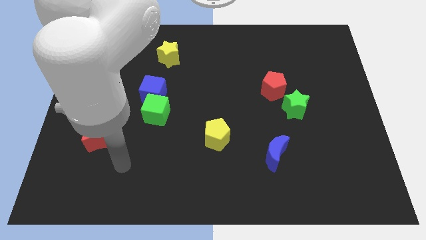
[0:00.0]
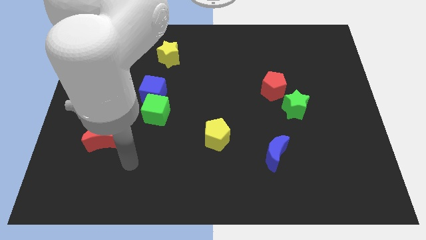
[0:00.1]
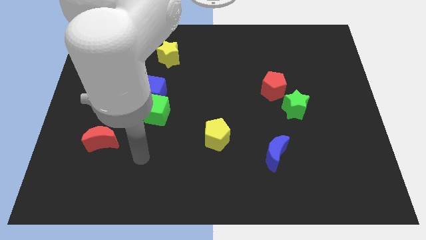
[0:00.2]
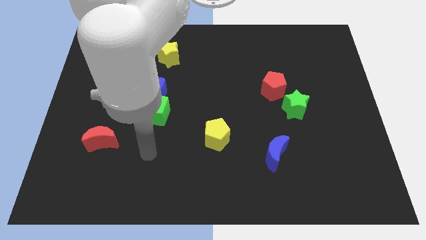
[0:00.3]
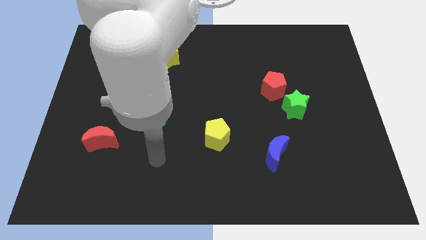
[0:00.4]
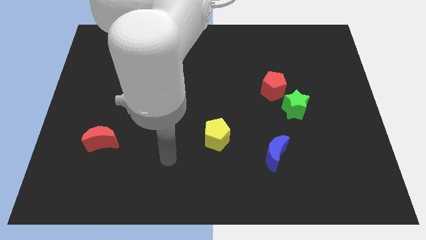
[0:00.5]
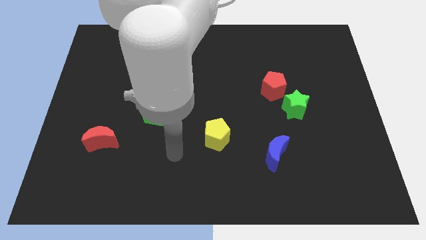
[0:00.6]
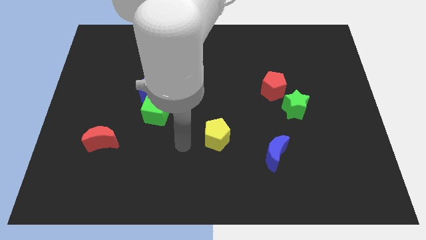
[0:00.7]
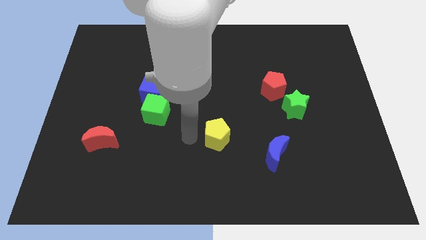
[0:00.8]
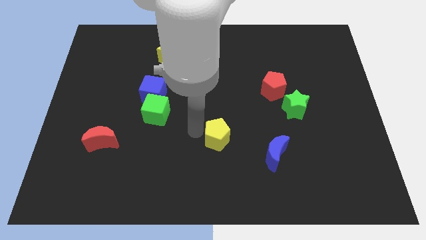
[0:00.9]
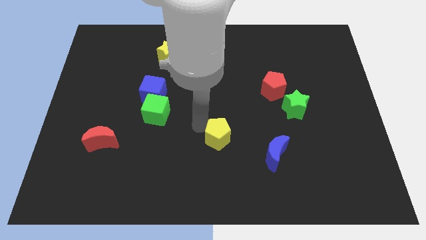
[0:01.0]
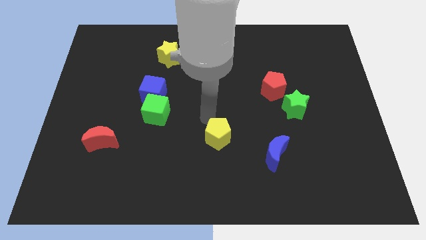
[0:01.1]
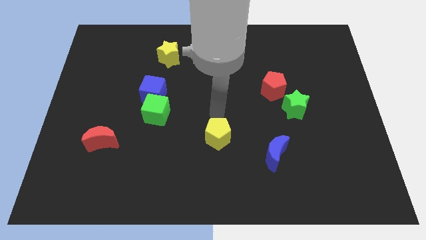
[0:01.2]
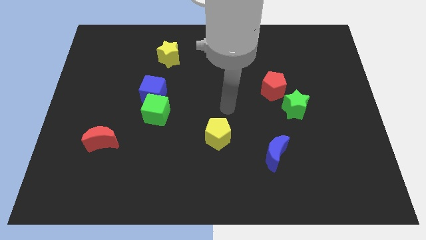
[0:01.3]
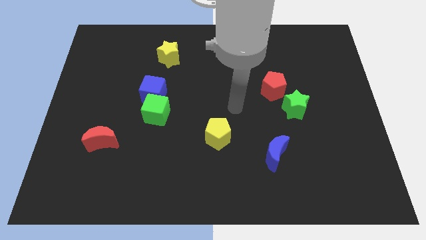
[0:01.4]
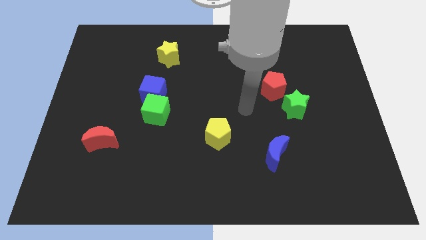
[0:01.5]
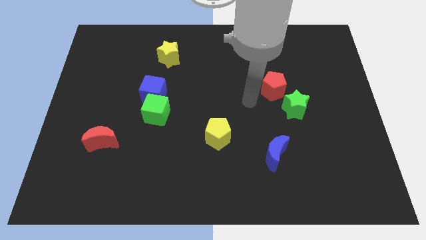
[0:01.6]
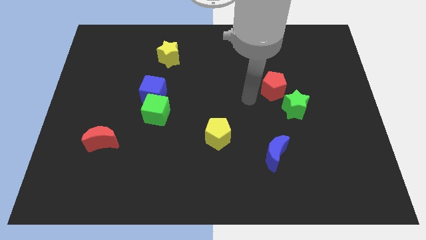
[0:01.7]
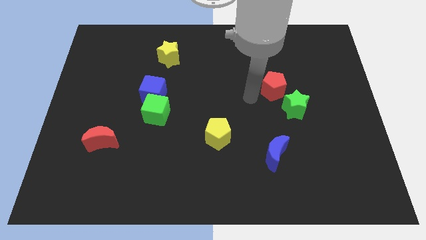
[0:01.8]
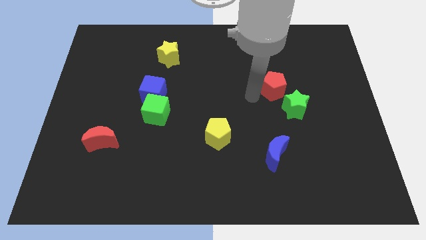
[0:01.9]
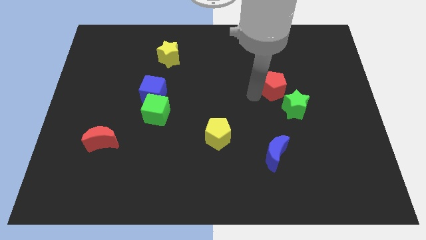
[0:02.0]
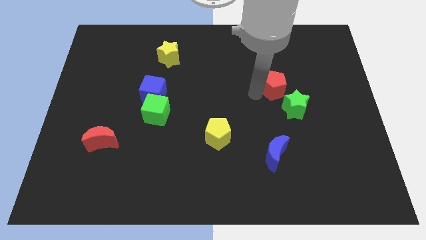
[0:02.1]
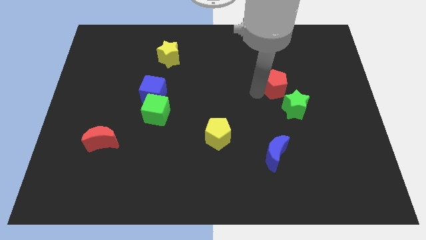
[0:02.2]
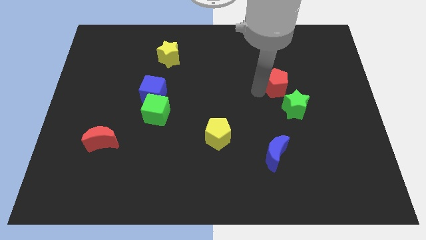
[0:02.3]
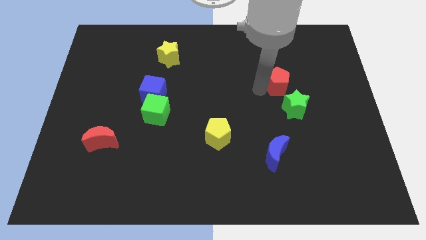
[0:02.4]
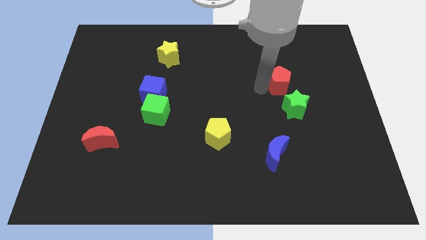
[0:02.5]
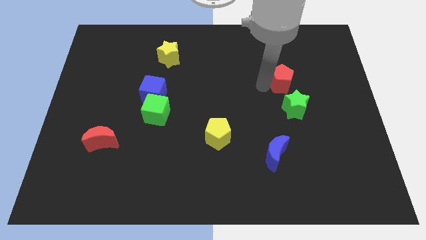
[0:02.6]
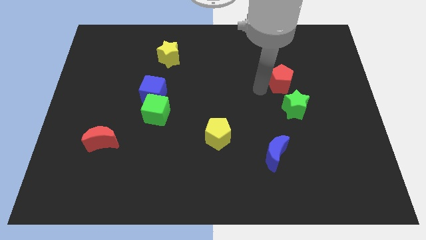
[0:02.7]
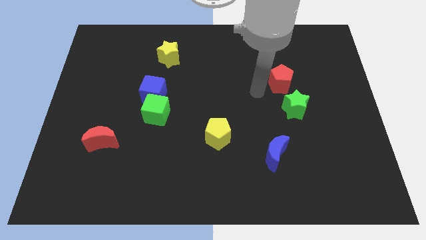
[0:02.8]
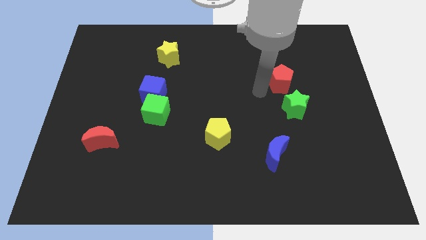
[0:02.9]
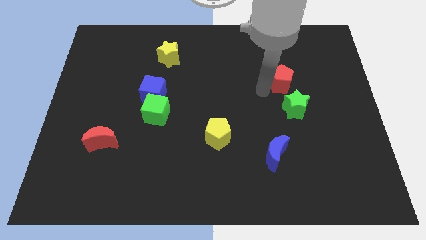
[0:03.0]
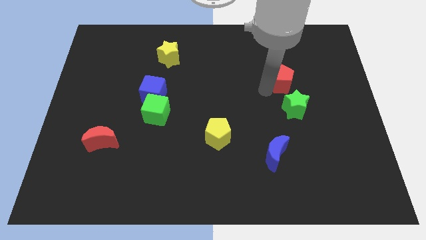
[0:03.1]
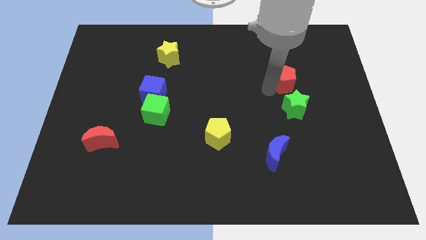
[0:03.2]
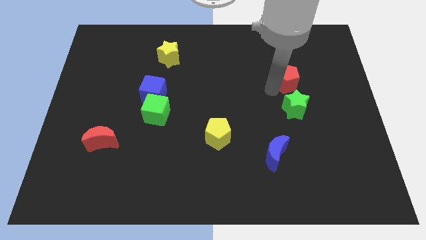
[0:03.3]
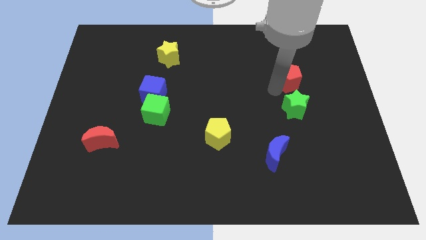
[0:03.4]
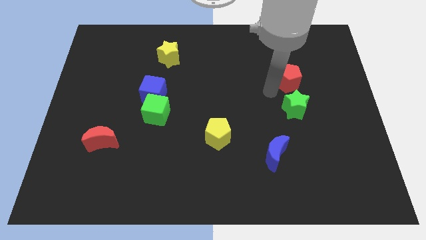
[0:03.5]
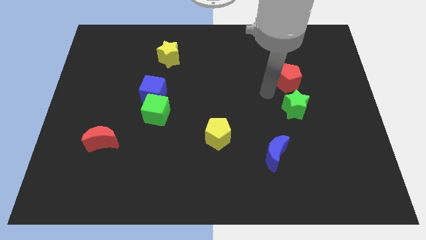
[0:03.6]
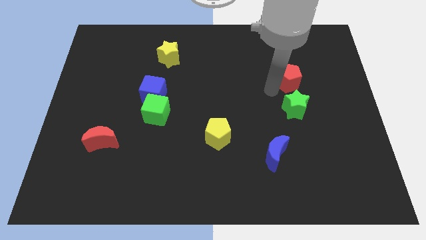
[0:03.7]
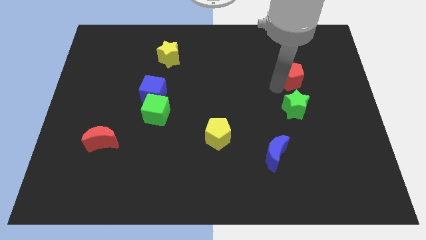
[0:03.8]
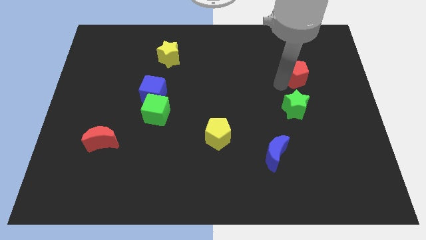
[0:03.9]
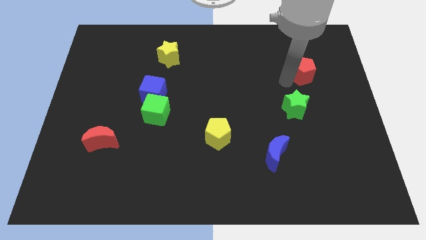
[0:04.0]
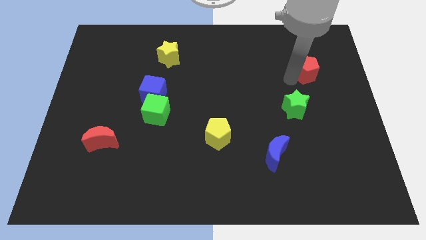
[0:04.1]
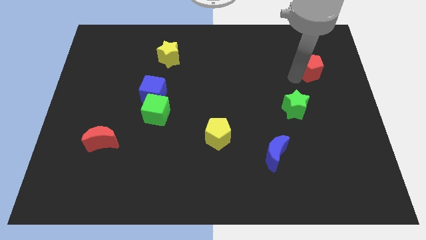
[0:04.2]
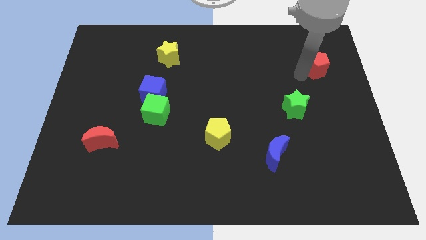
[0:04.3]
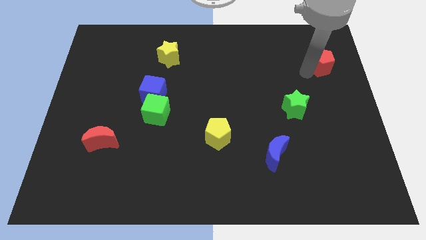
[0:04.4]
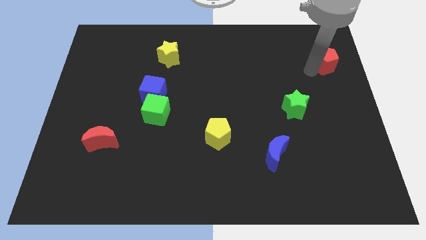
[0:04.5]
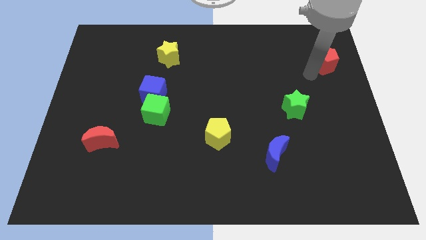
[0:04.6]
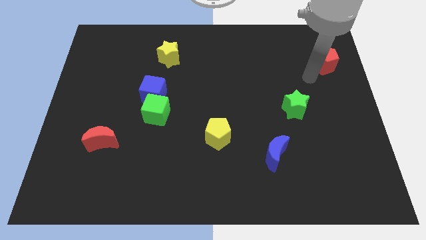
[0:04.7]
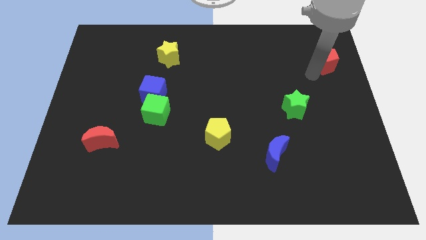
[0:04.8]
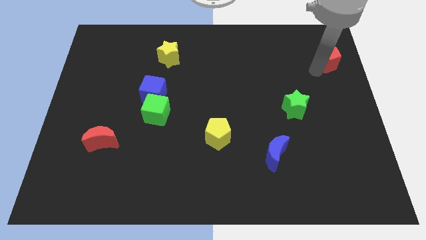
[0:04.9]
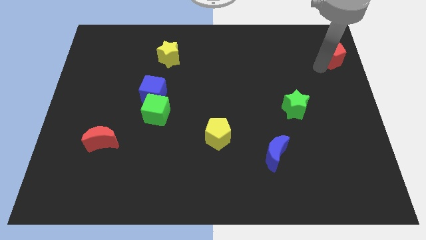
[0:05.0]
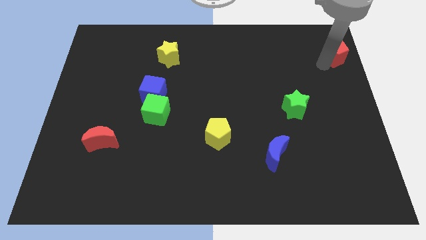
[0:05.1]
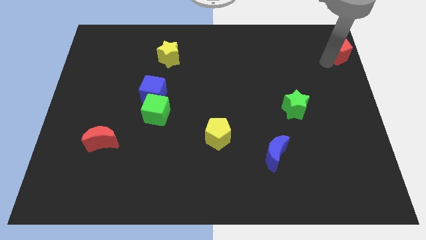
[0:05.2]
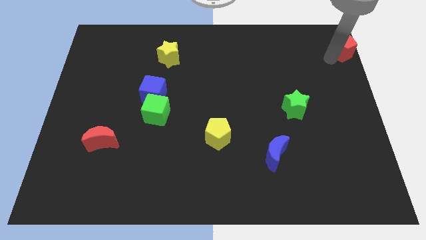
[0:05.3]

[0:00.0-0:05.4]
push the red pentagon to the top right corner

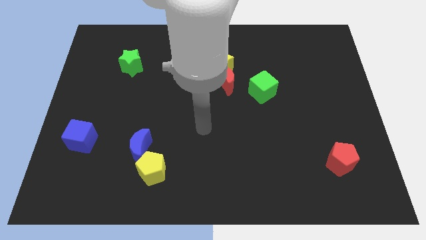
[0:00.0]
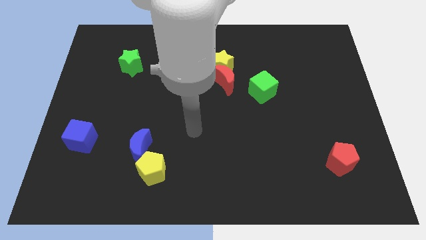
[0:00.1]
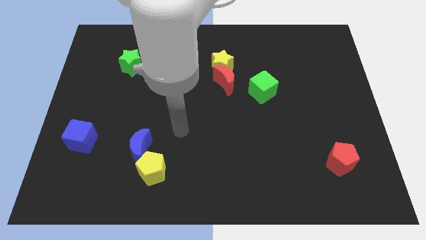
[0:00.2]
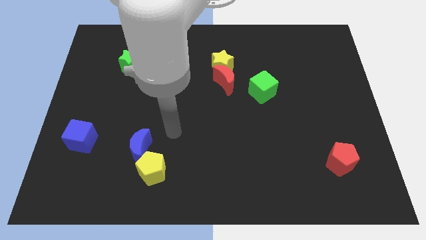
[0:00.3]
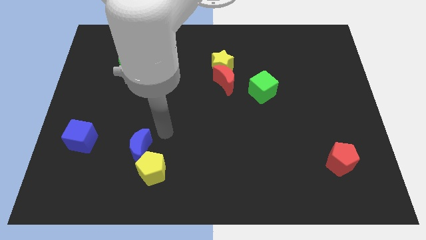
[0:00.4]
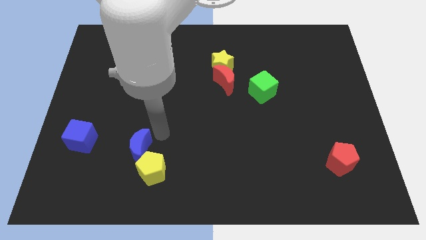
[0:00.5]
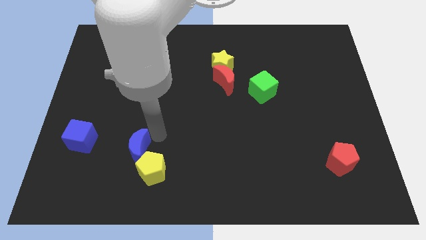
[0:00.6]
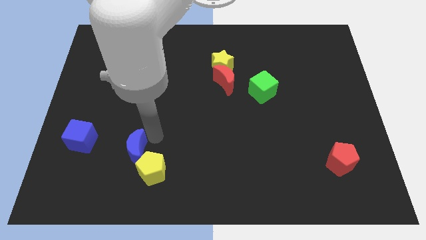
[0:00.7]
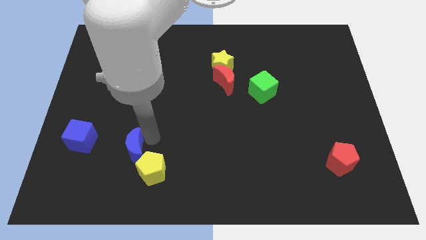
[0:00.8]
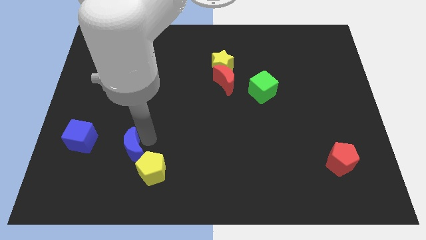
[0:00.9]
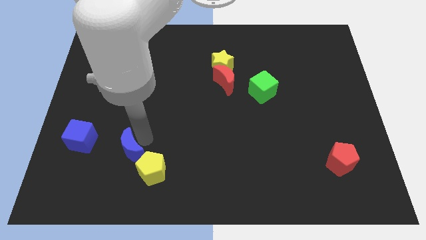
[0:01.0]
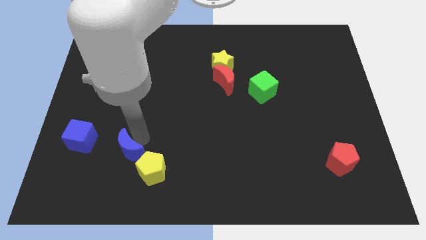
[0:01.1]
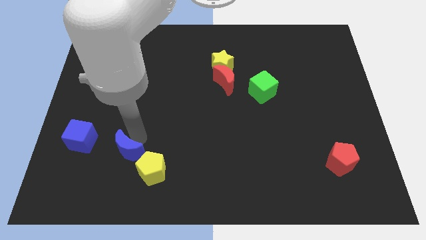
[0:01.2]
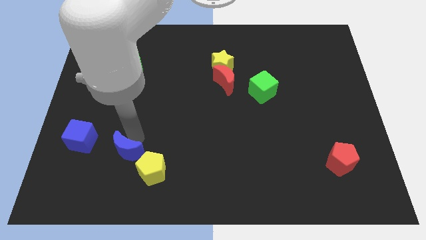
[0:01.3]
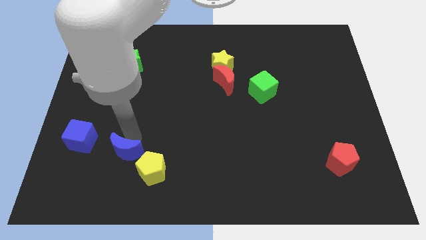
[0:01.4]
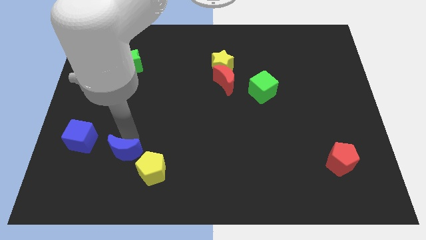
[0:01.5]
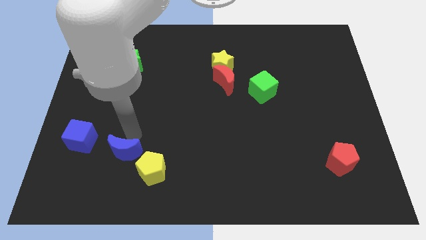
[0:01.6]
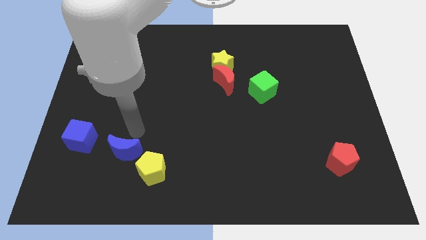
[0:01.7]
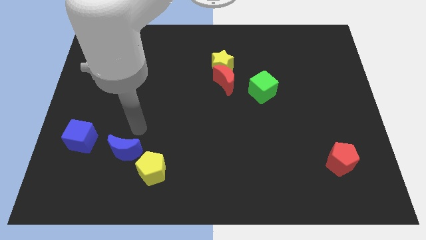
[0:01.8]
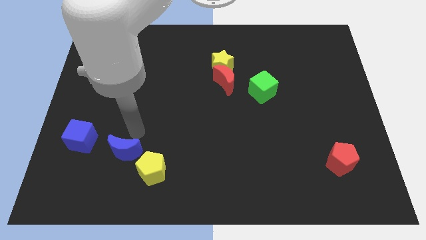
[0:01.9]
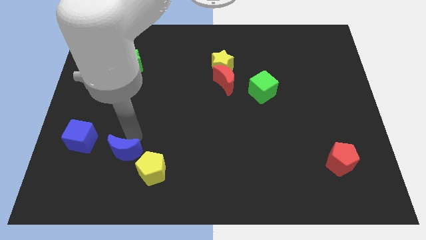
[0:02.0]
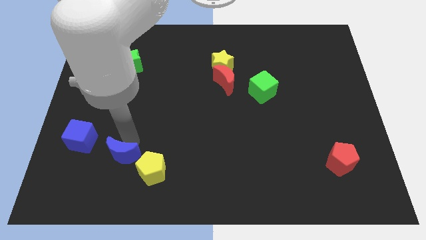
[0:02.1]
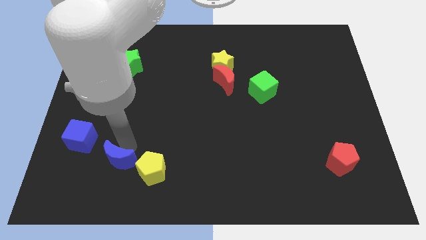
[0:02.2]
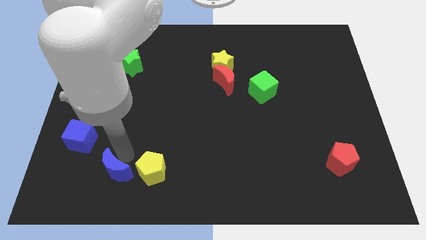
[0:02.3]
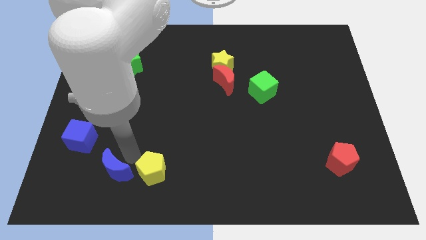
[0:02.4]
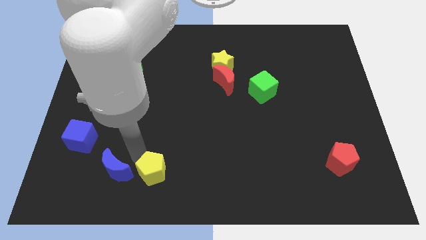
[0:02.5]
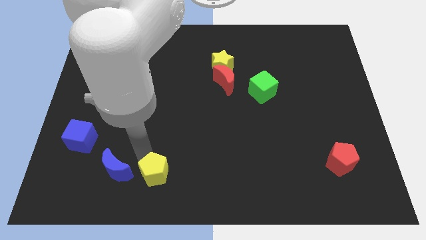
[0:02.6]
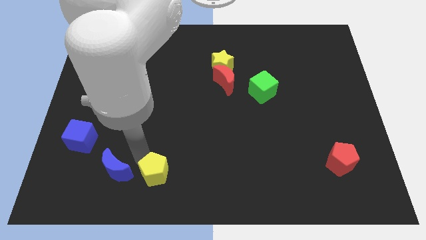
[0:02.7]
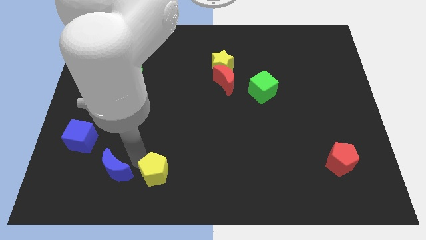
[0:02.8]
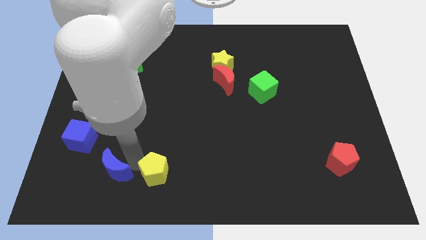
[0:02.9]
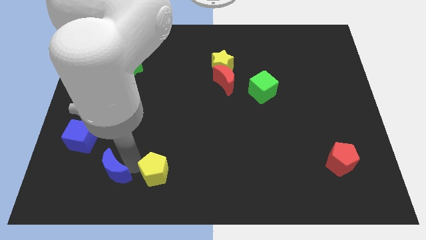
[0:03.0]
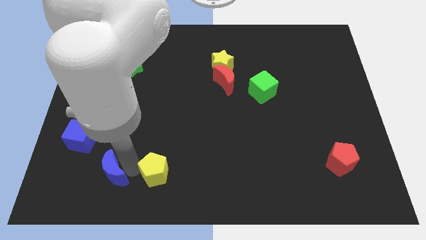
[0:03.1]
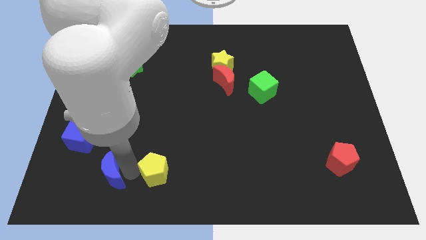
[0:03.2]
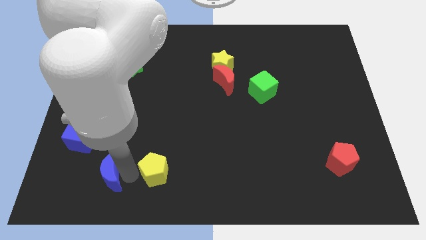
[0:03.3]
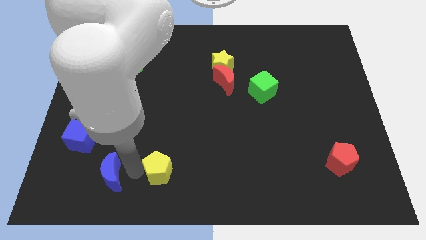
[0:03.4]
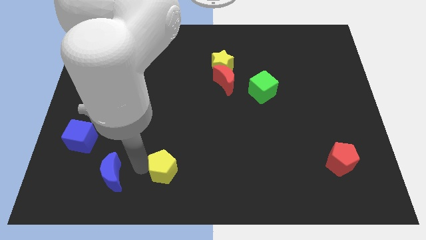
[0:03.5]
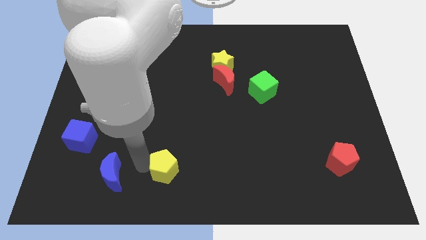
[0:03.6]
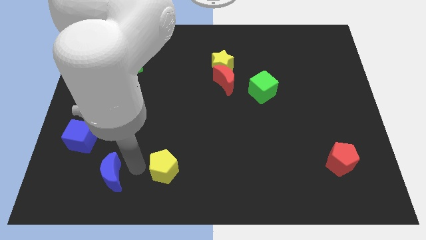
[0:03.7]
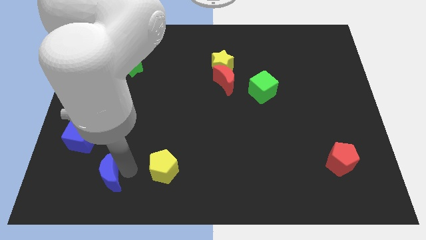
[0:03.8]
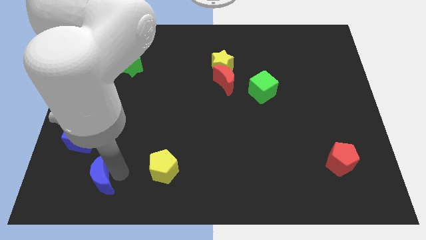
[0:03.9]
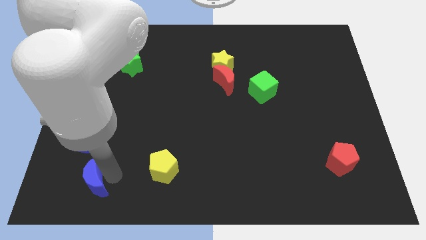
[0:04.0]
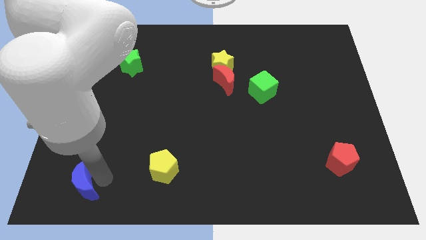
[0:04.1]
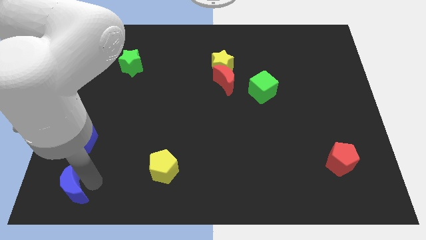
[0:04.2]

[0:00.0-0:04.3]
slide the blue moon to the bottom left
